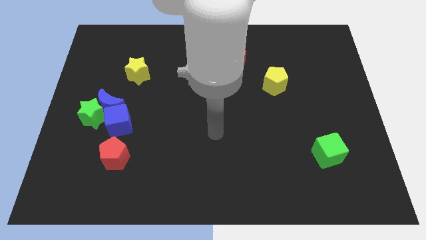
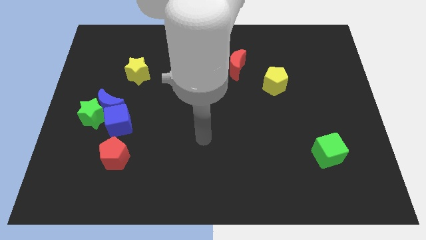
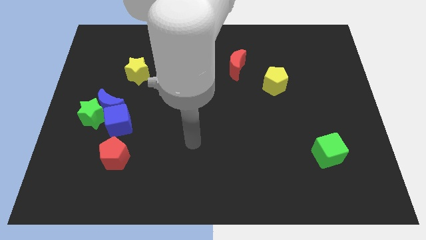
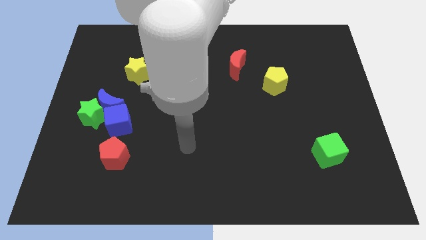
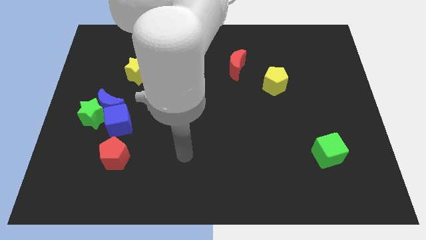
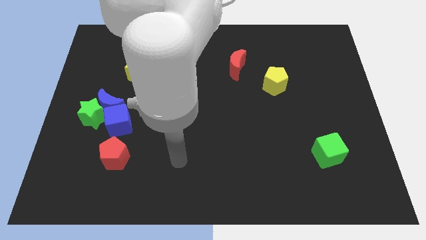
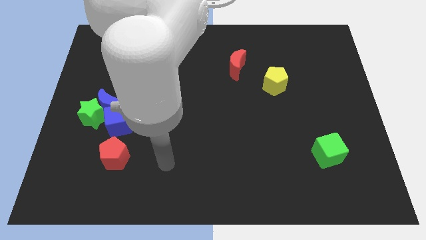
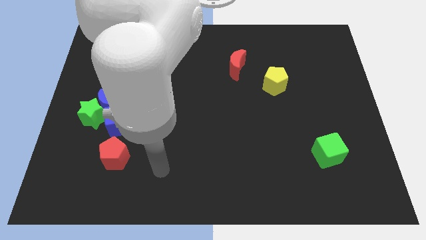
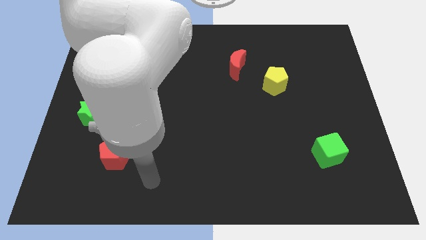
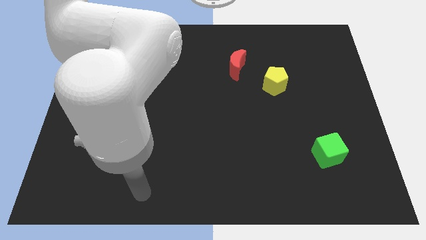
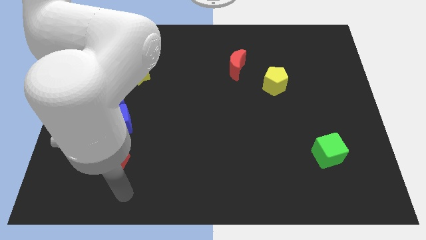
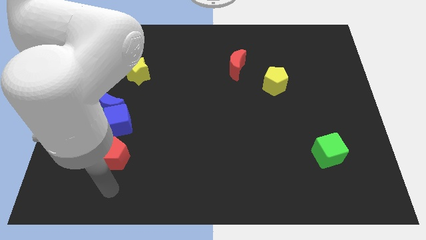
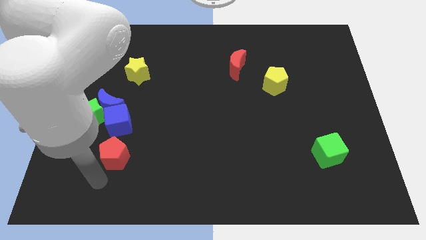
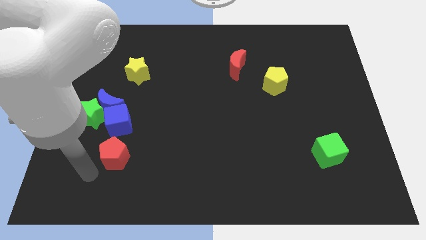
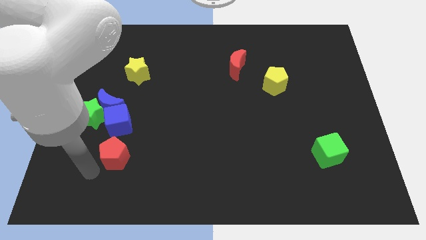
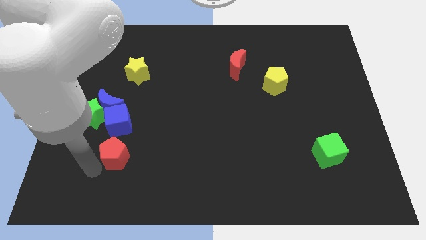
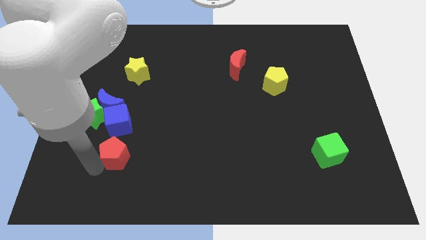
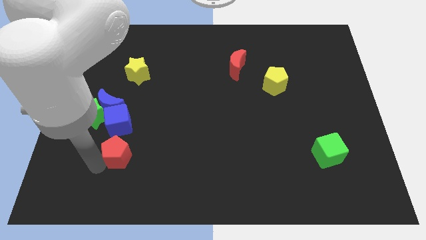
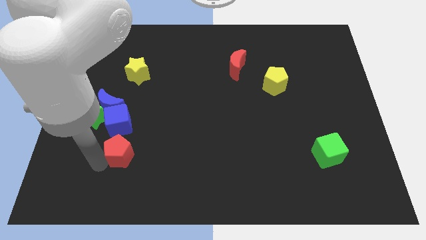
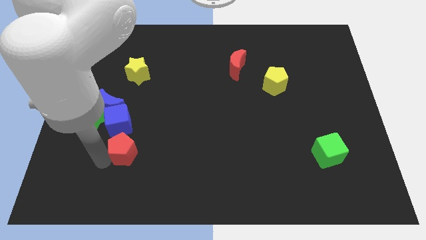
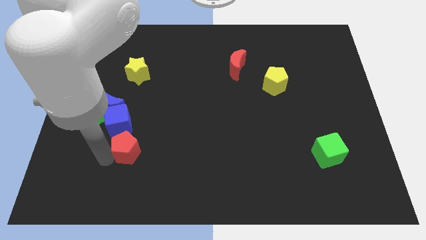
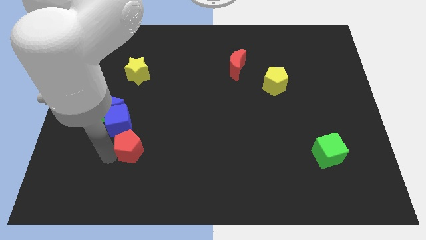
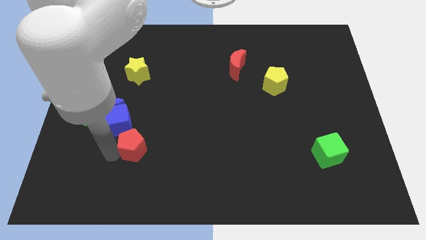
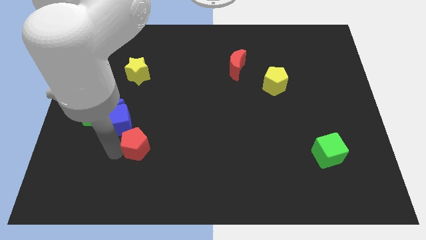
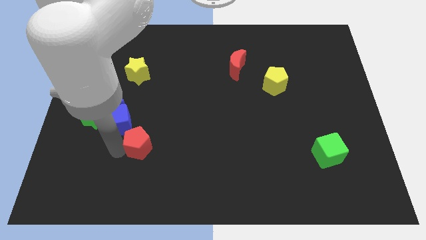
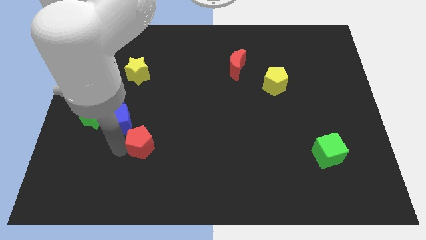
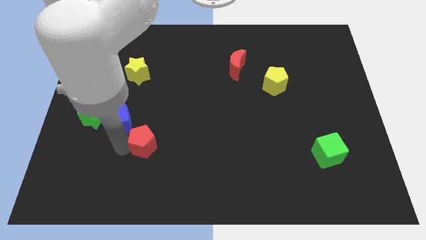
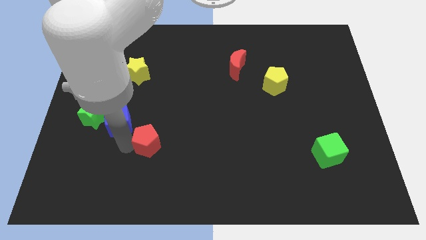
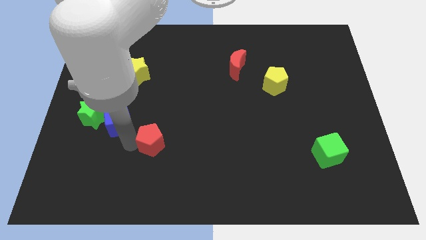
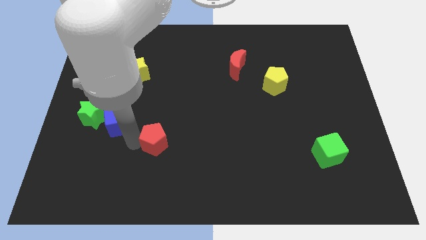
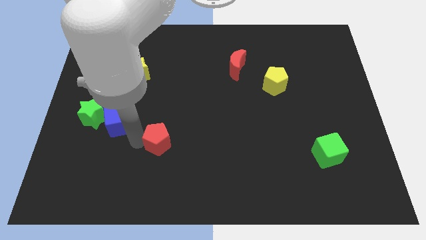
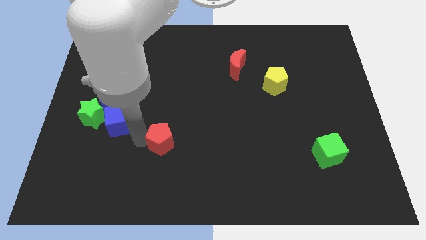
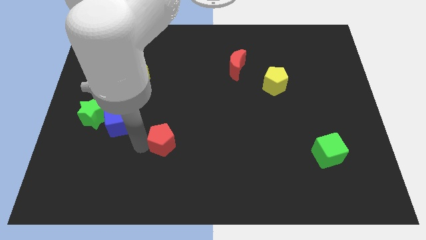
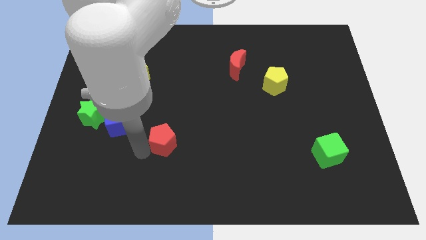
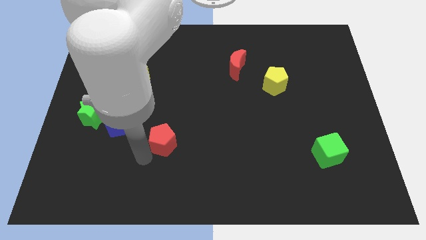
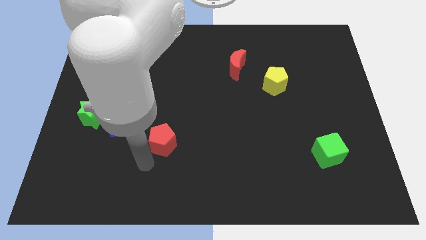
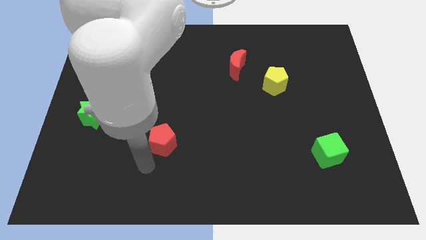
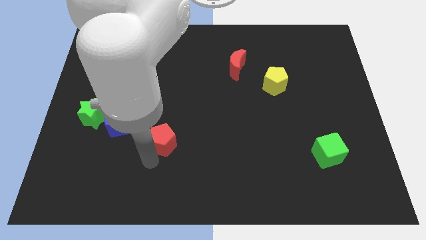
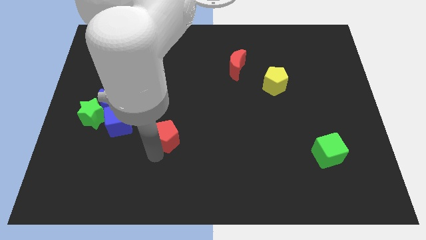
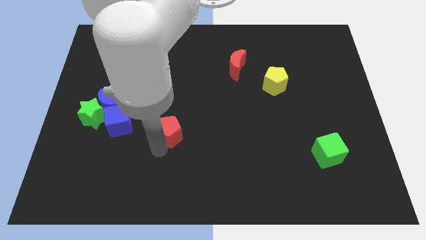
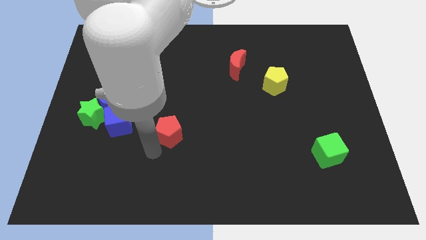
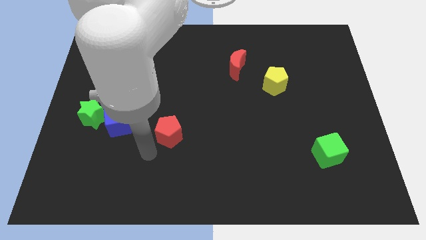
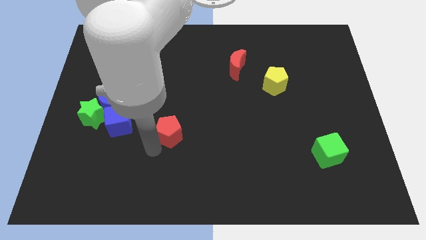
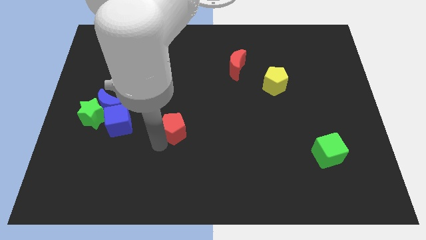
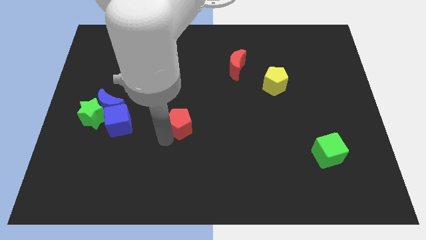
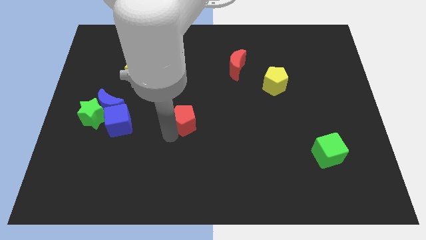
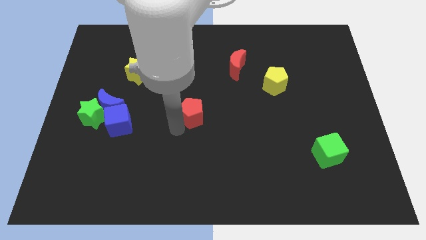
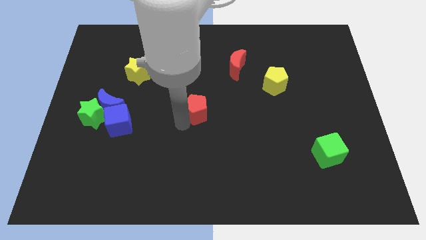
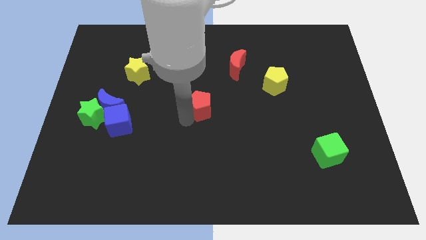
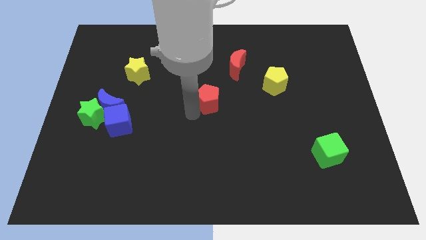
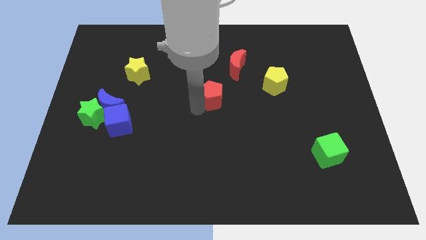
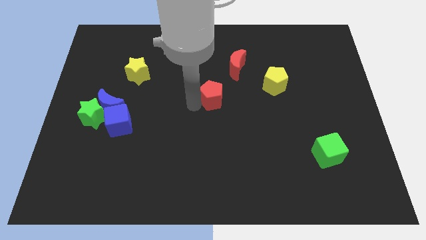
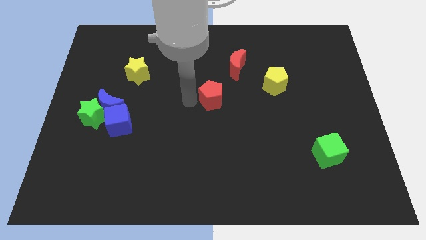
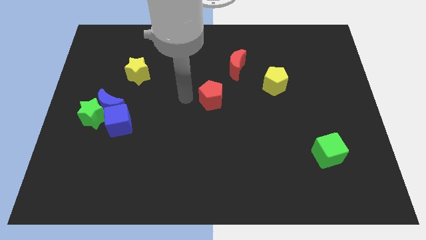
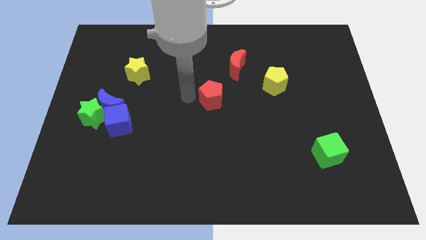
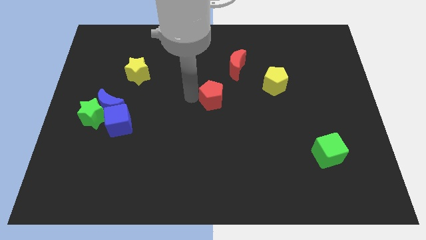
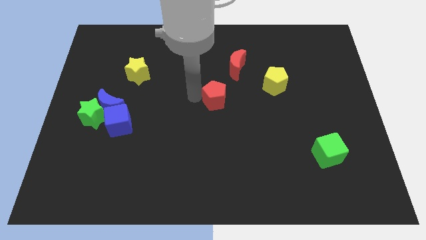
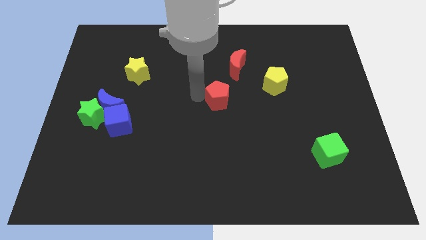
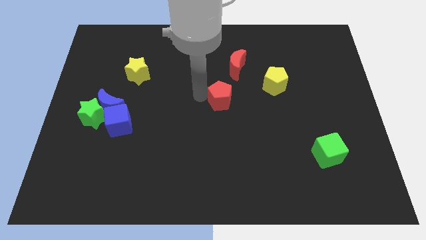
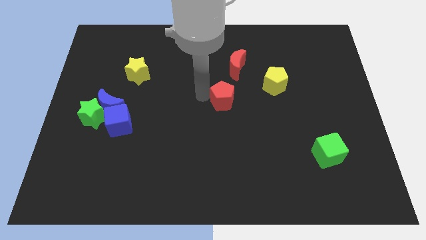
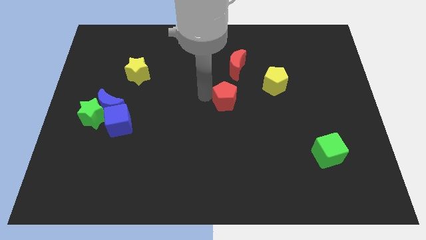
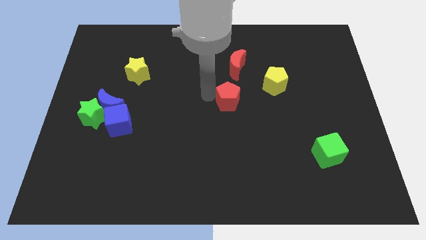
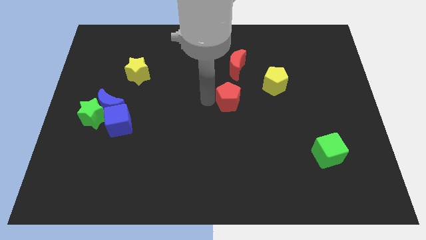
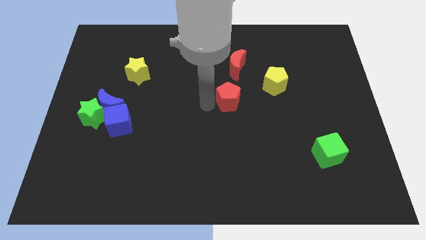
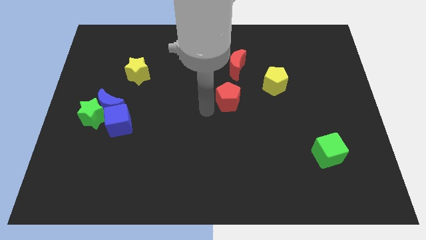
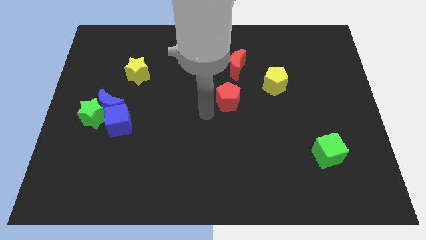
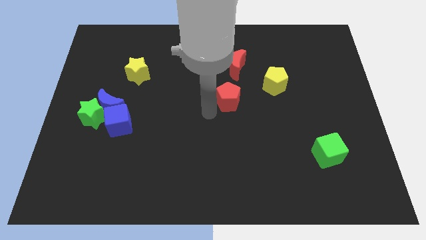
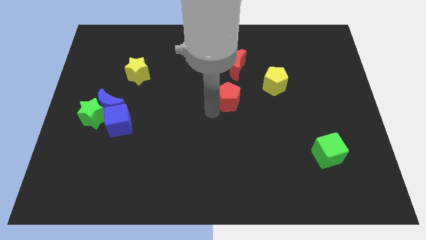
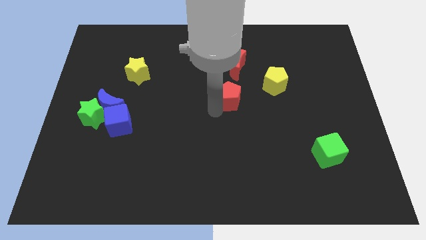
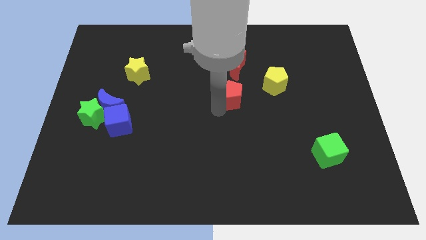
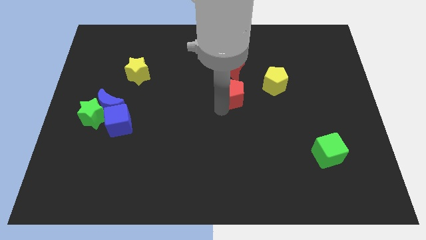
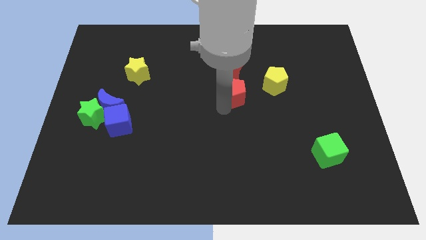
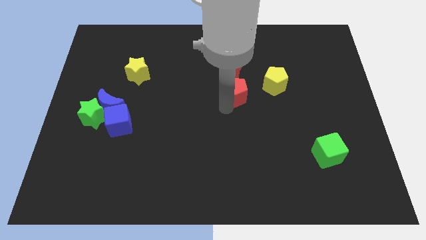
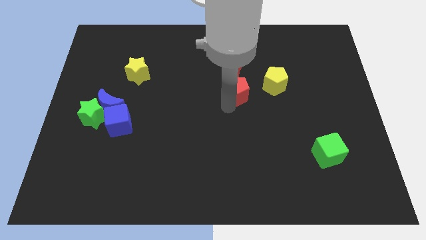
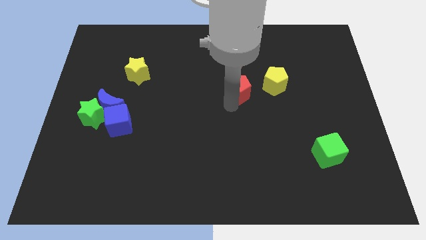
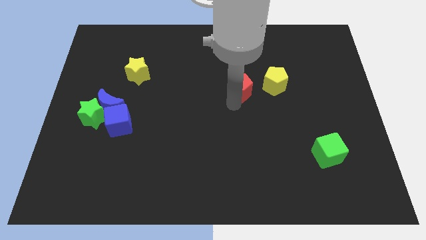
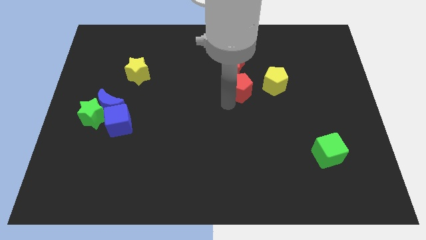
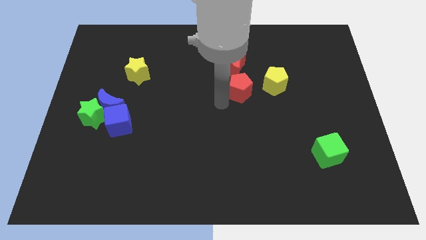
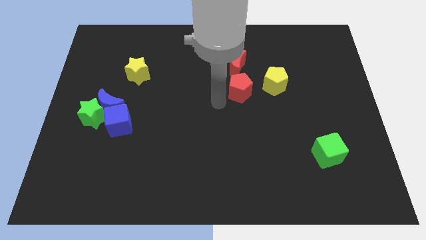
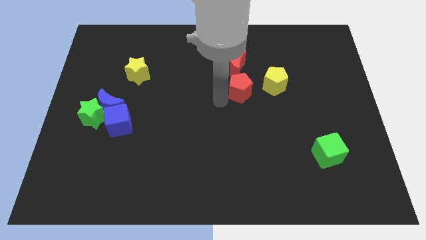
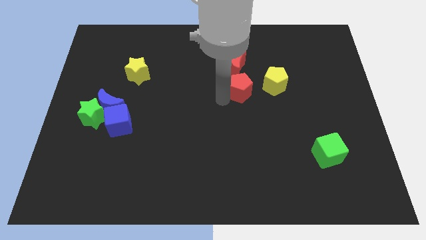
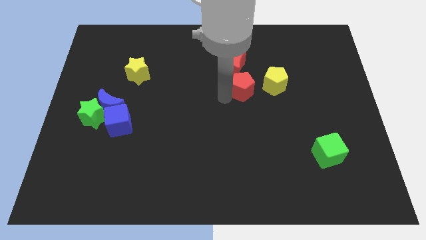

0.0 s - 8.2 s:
slide the red pentagon to the bottom right of the red moon
